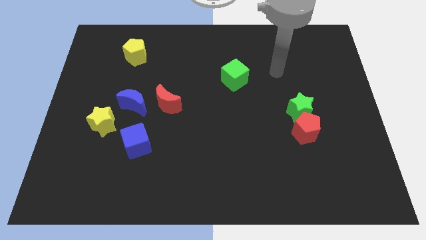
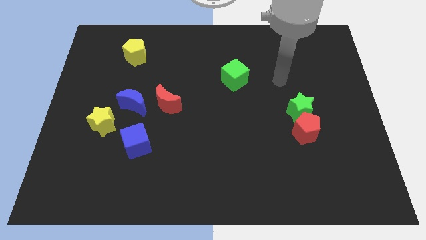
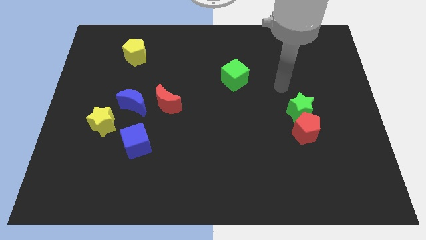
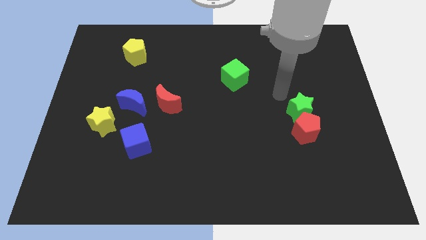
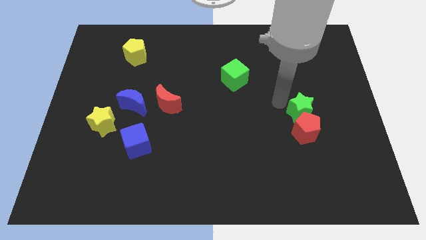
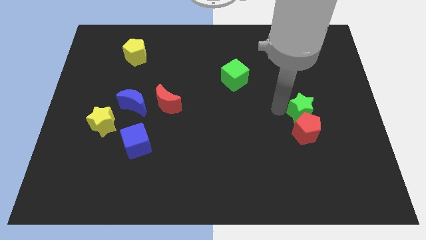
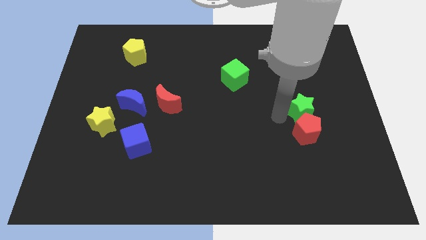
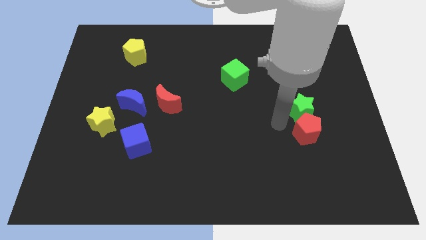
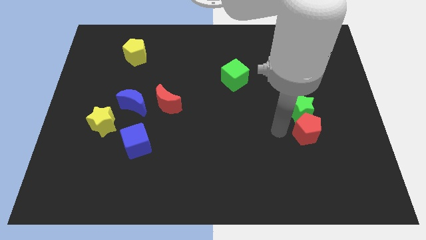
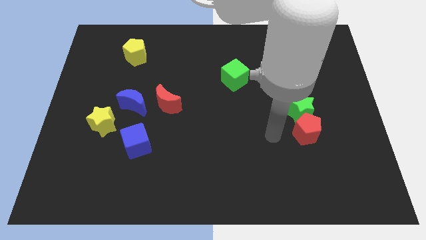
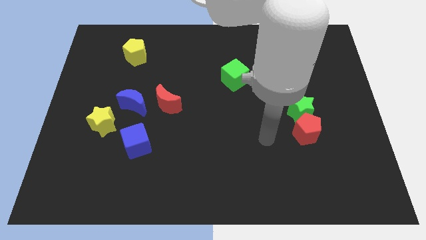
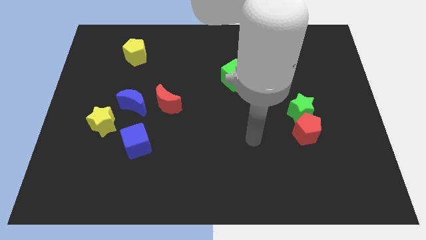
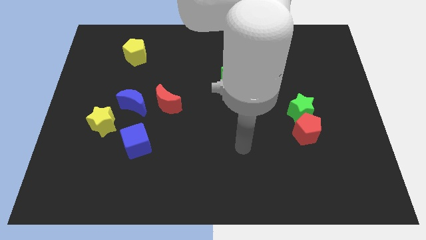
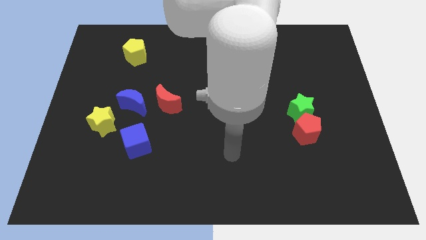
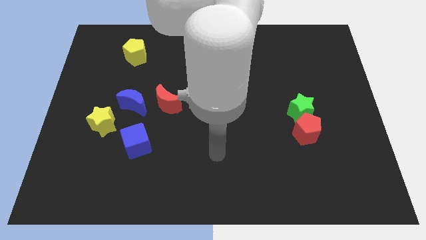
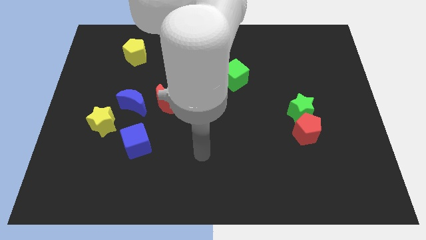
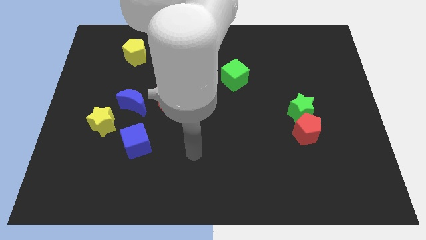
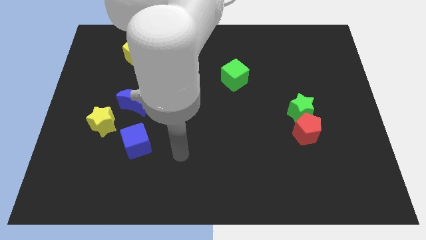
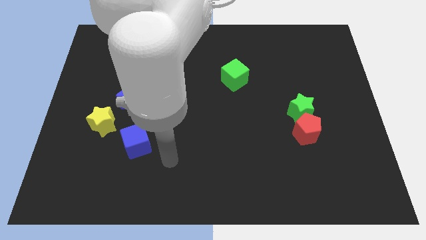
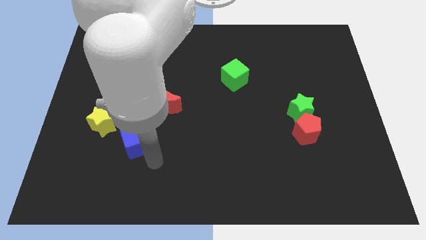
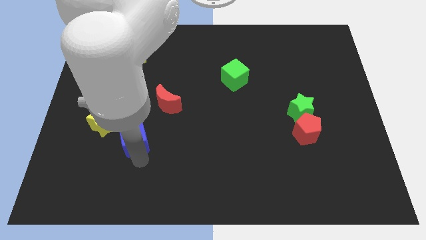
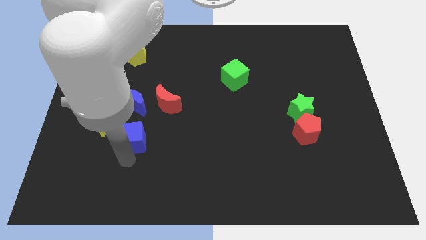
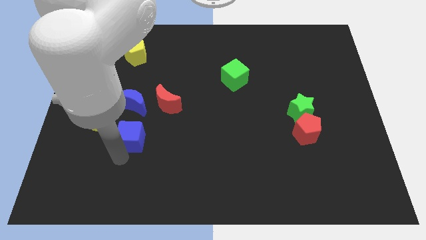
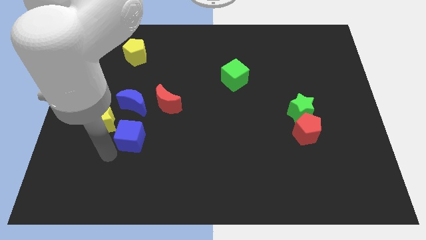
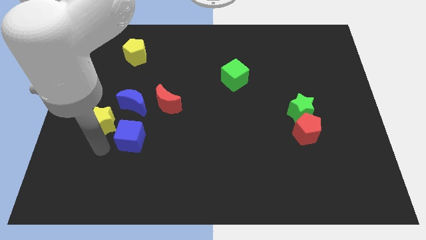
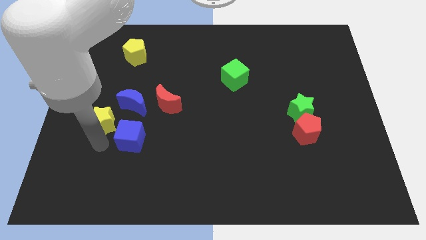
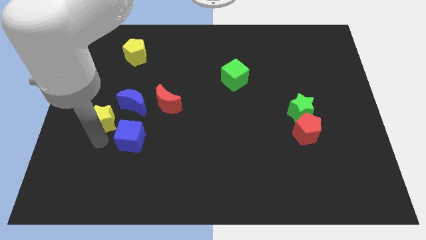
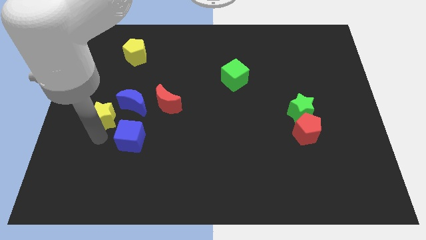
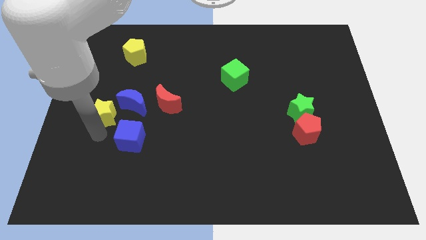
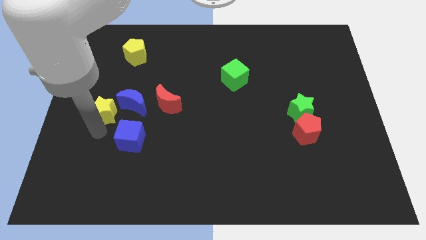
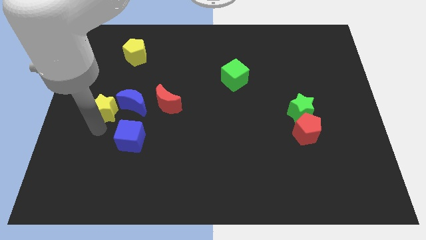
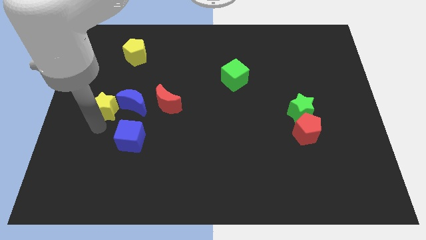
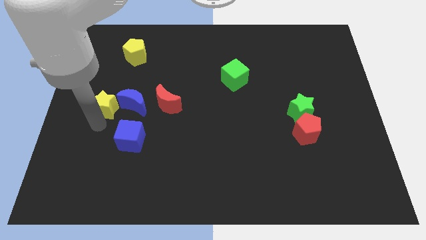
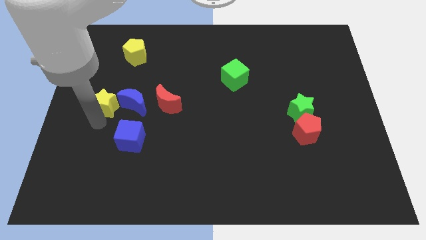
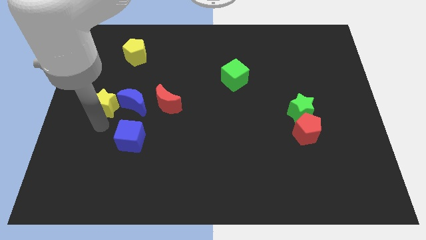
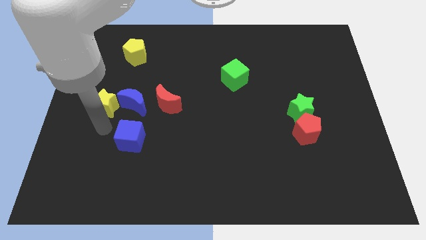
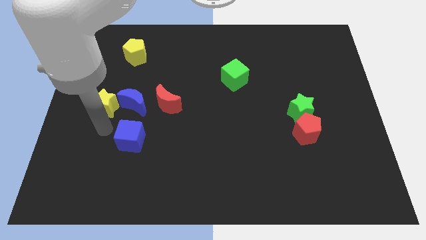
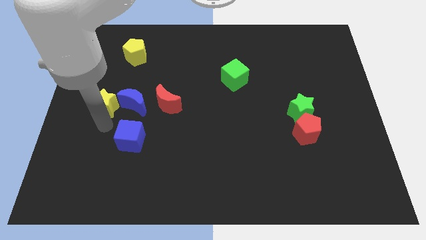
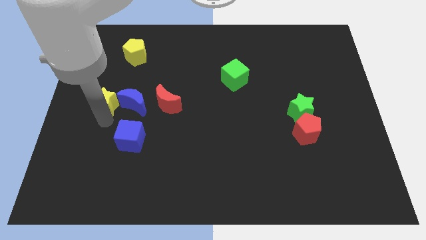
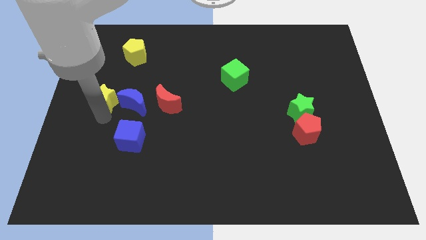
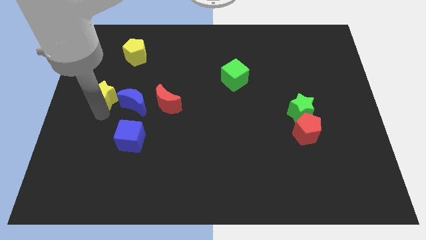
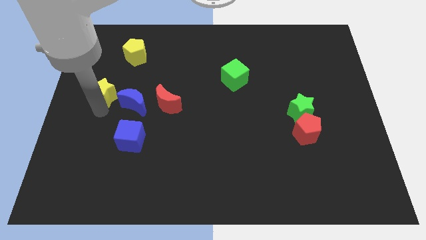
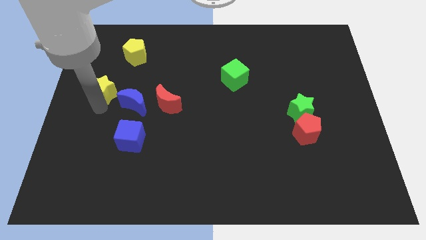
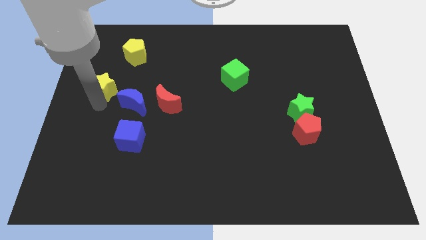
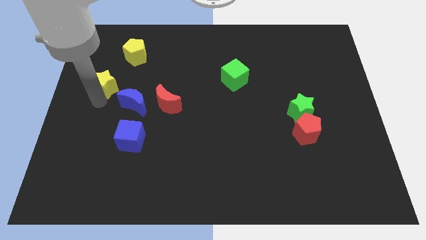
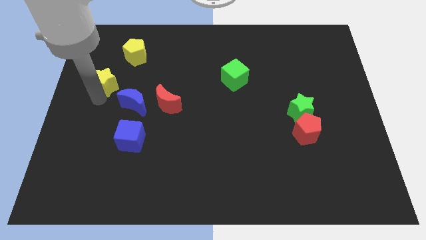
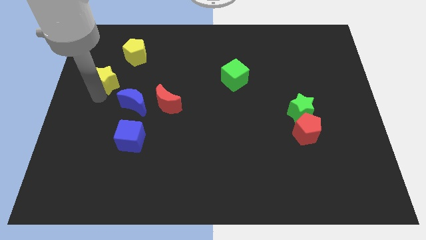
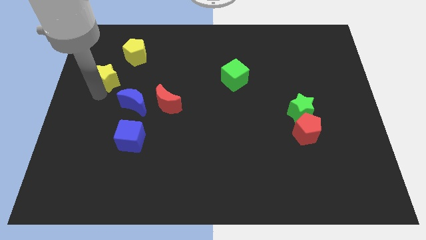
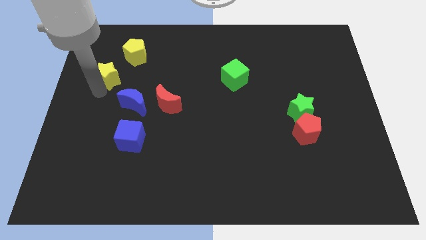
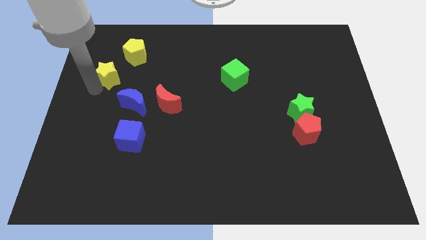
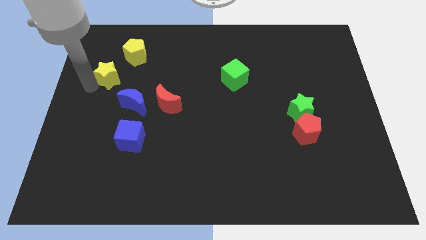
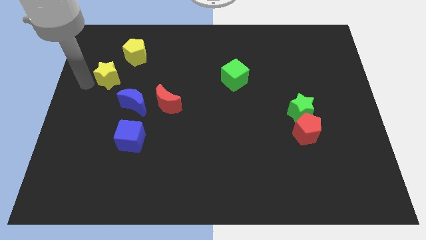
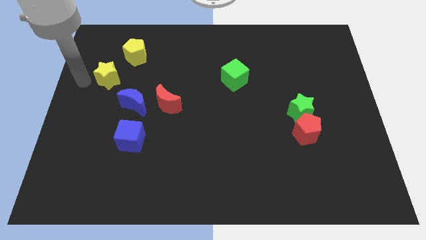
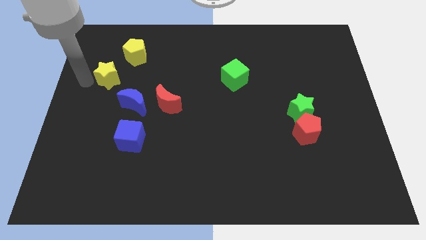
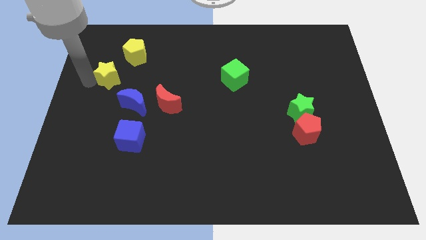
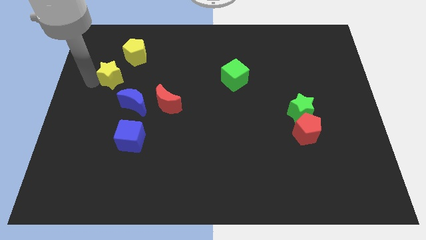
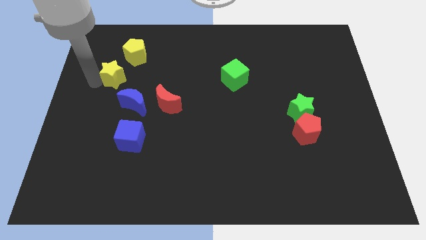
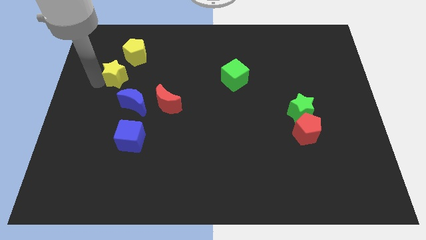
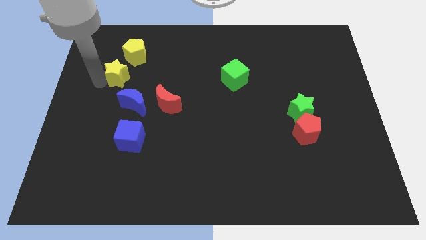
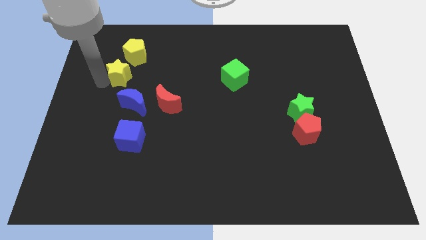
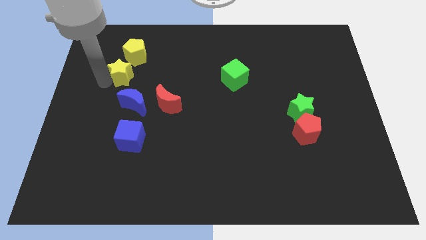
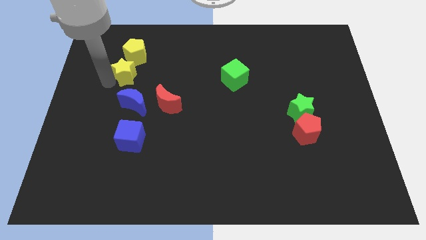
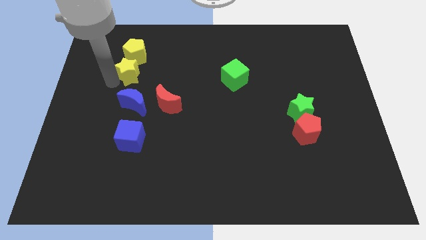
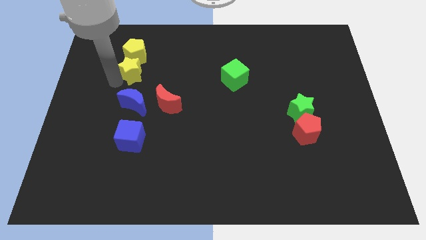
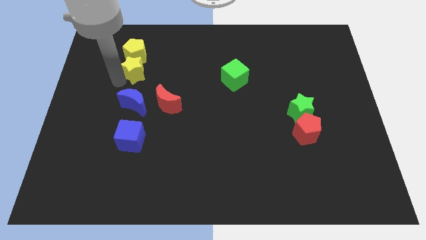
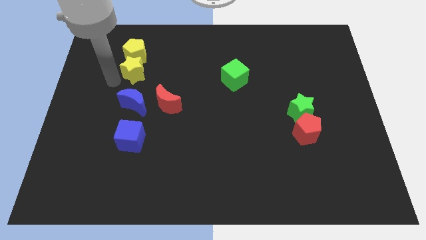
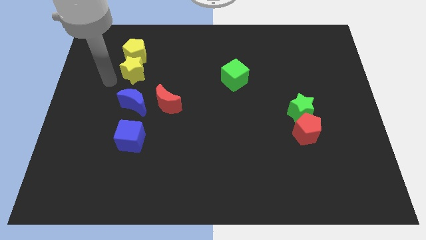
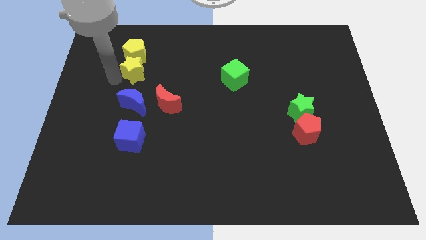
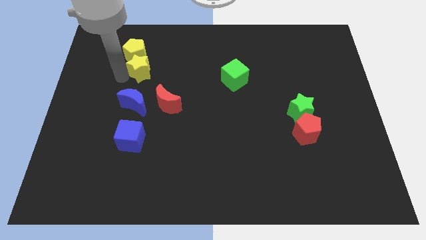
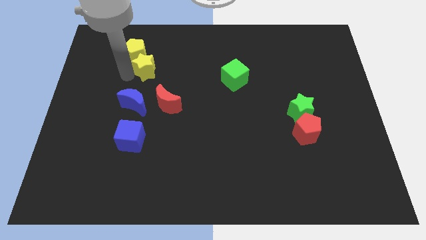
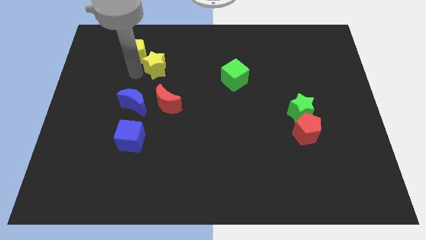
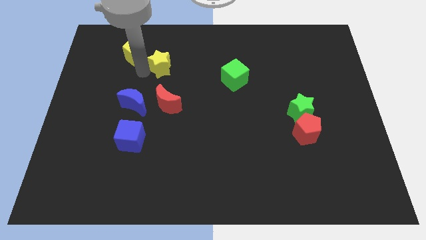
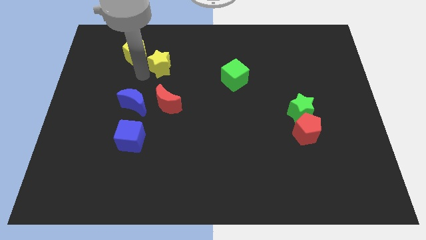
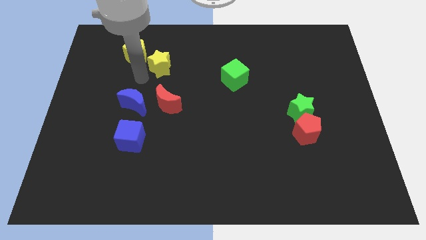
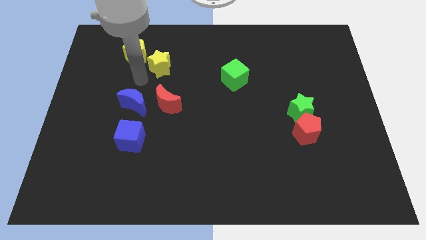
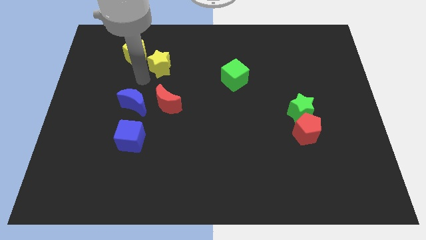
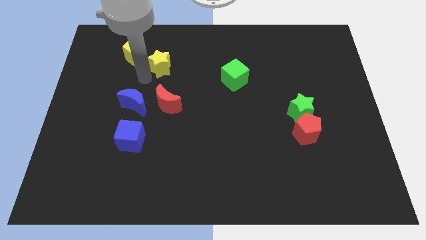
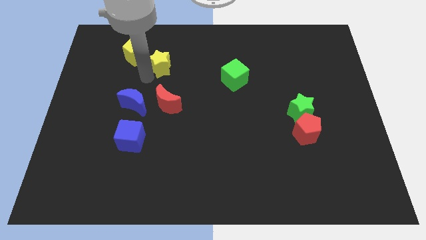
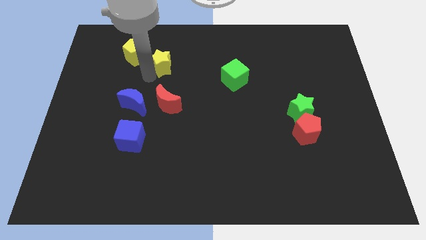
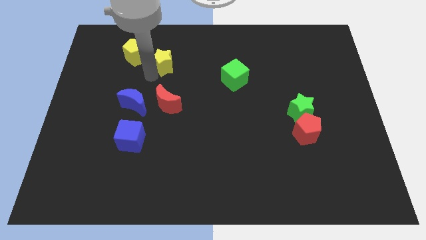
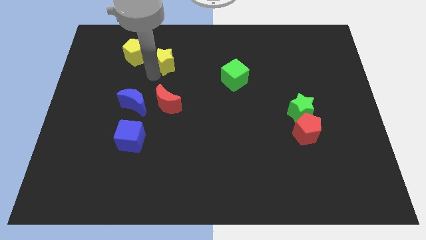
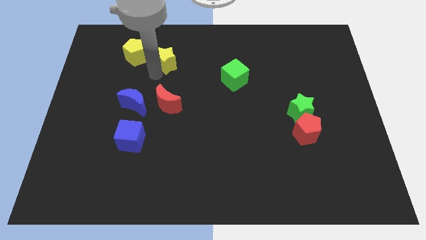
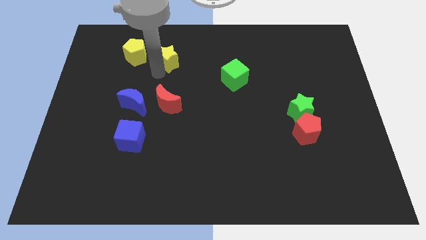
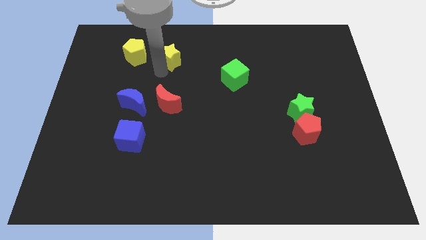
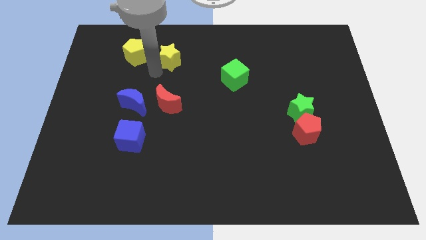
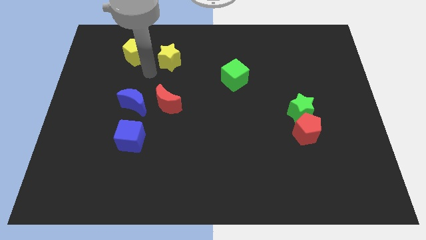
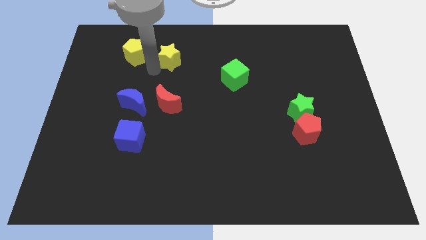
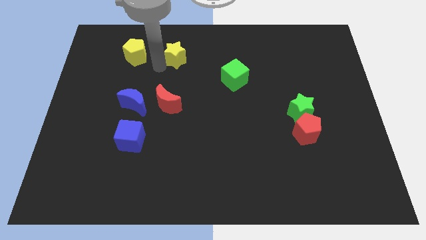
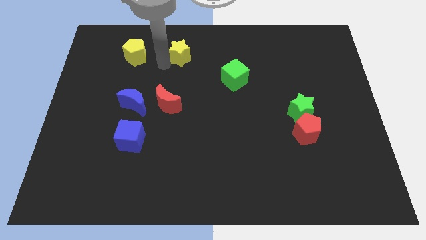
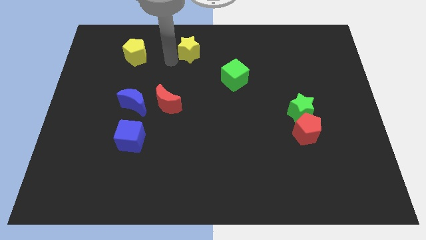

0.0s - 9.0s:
put the yellow star to the towards your base
